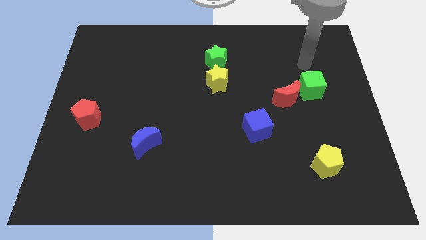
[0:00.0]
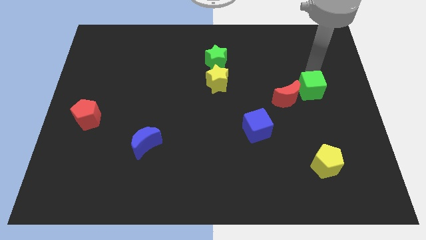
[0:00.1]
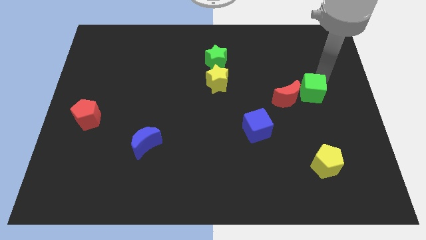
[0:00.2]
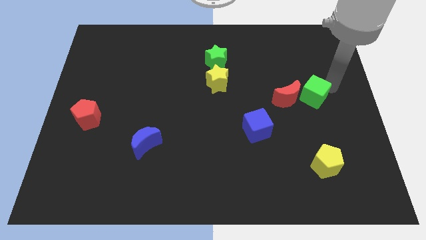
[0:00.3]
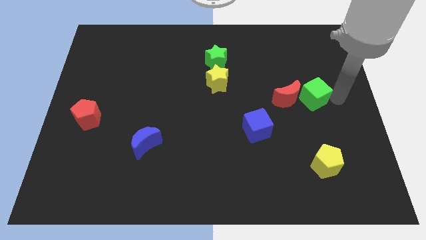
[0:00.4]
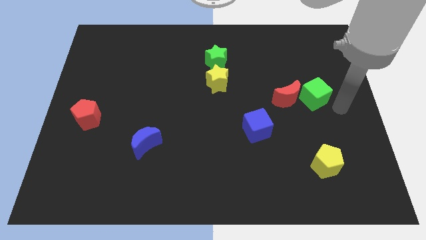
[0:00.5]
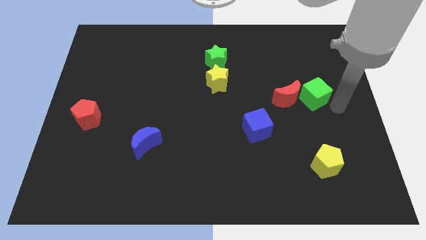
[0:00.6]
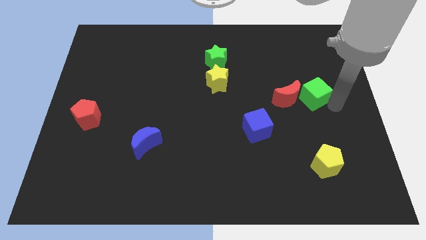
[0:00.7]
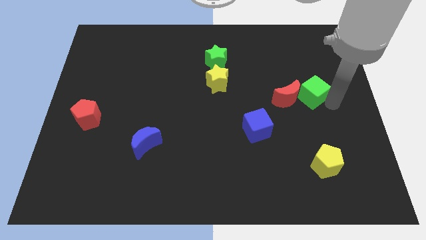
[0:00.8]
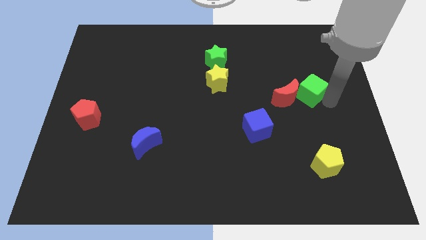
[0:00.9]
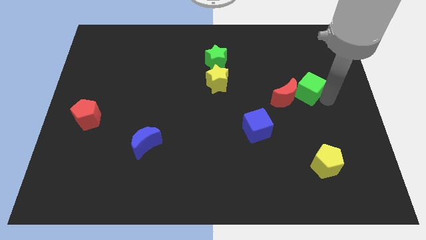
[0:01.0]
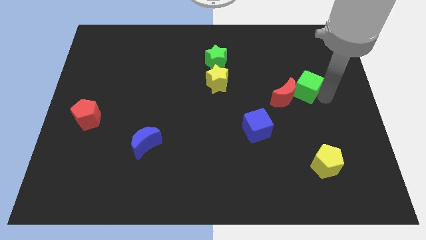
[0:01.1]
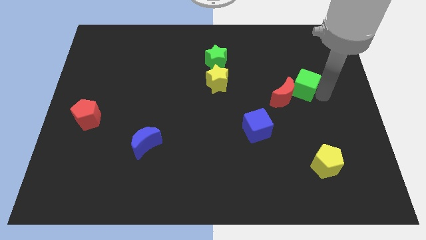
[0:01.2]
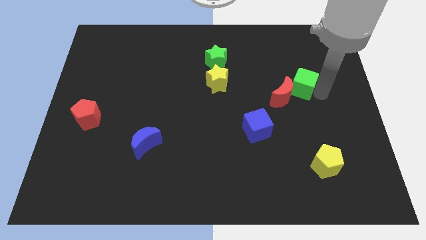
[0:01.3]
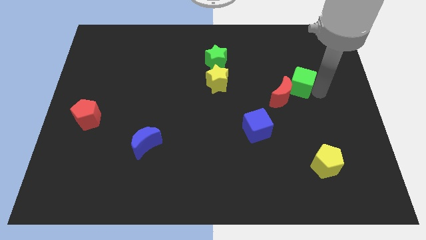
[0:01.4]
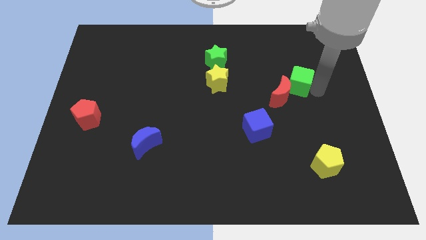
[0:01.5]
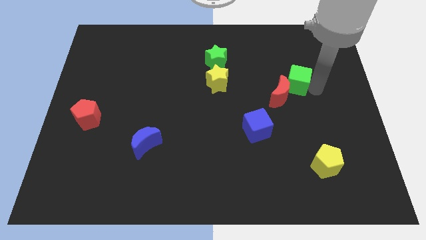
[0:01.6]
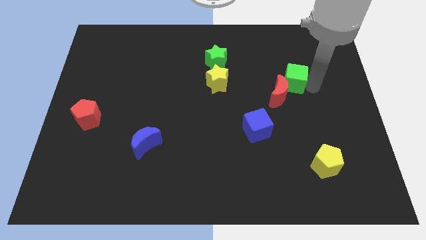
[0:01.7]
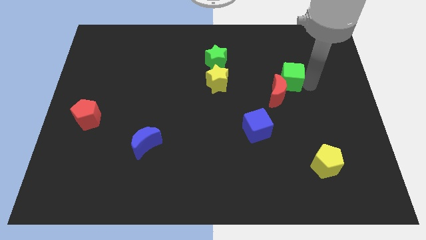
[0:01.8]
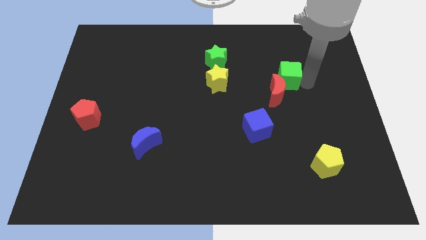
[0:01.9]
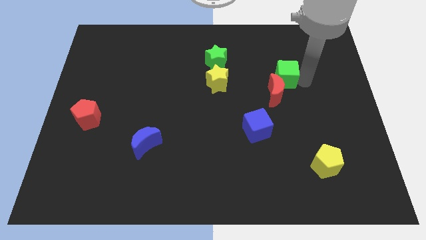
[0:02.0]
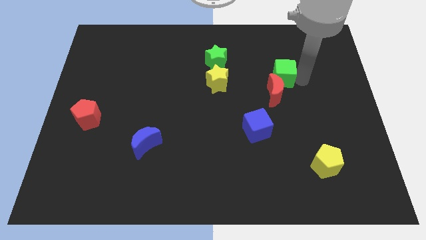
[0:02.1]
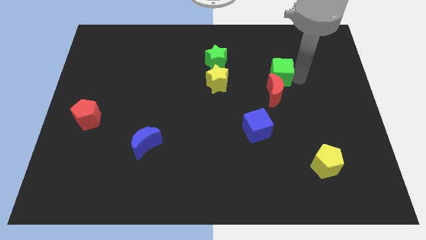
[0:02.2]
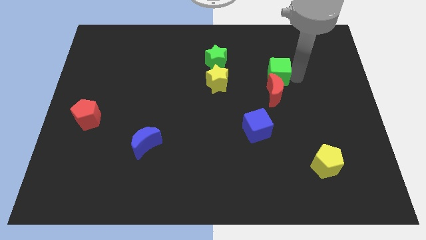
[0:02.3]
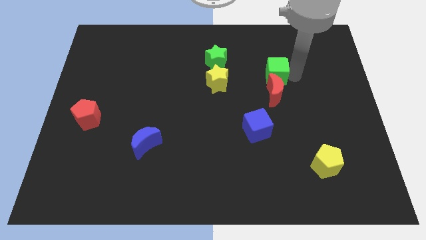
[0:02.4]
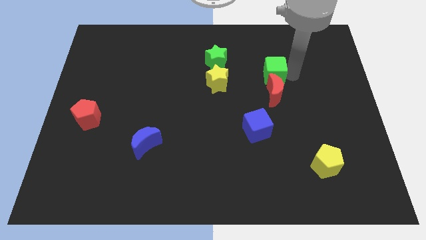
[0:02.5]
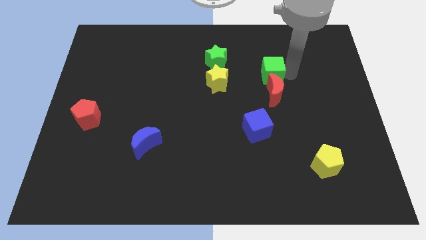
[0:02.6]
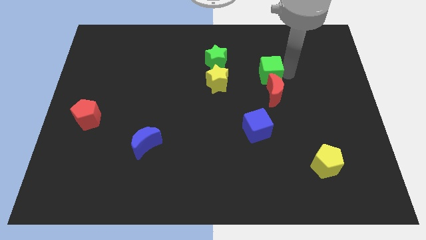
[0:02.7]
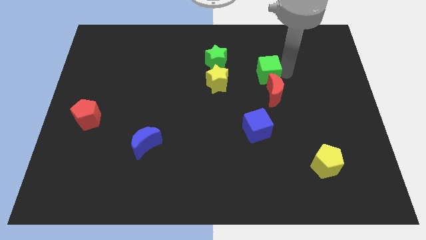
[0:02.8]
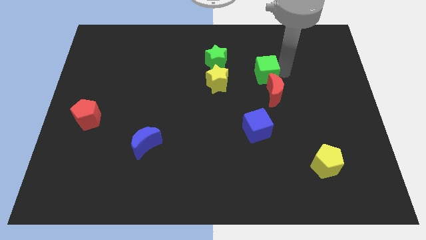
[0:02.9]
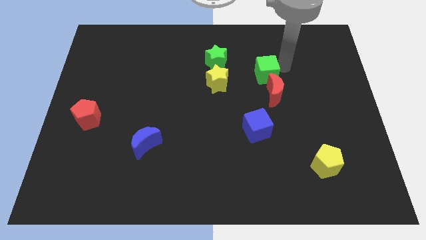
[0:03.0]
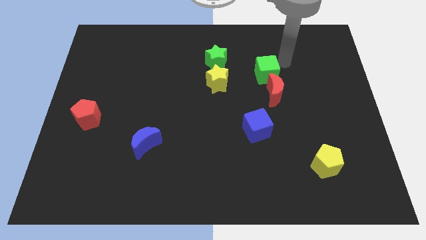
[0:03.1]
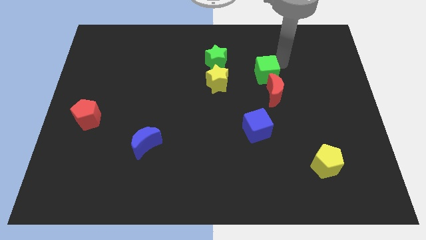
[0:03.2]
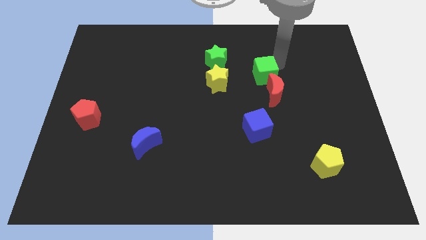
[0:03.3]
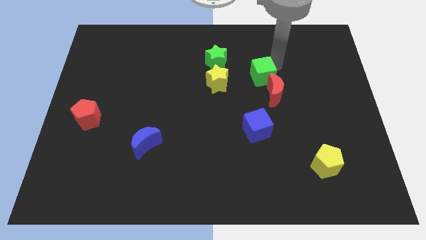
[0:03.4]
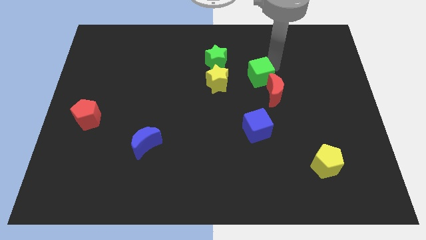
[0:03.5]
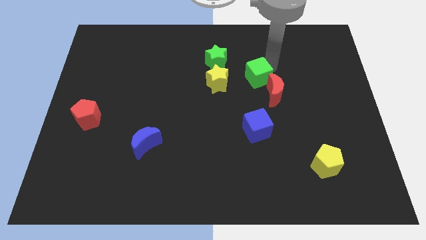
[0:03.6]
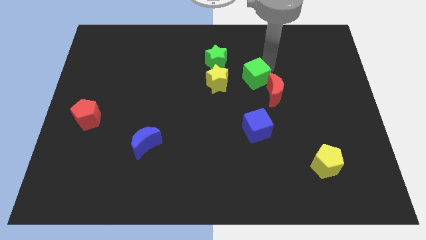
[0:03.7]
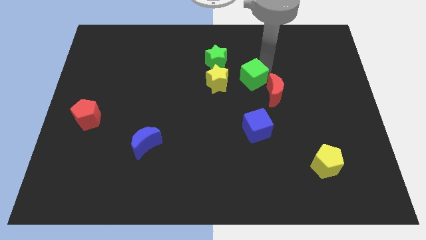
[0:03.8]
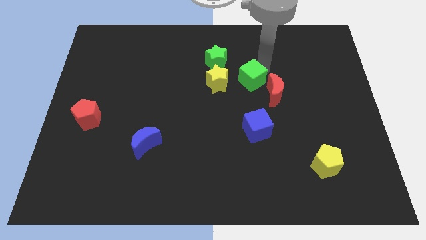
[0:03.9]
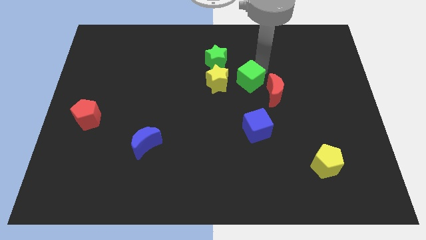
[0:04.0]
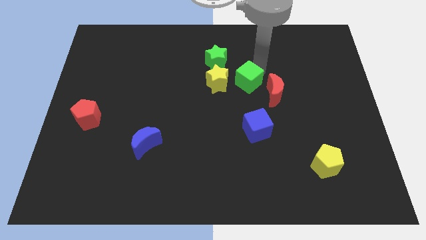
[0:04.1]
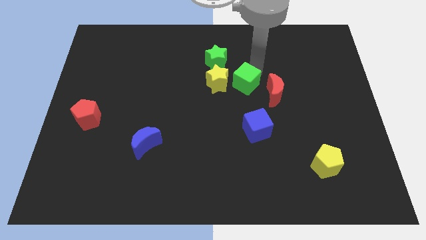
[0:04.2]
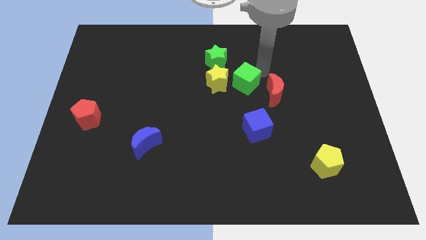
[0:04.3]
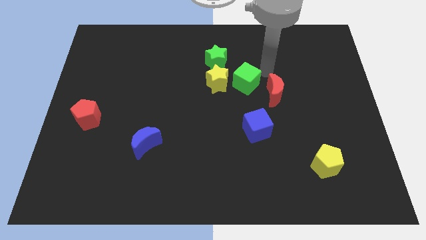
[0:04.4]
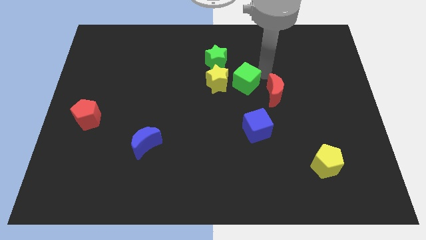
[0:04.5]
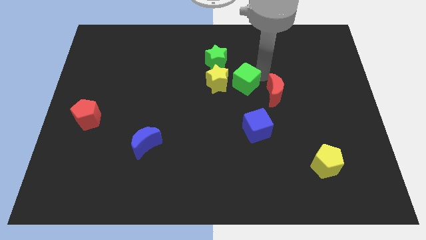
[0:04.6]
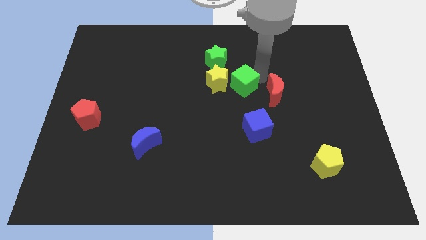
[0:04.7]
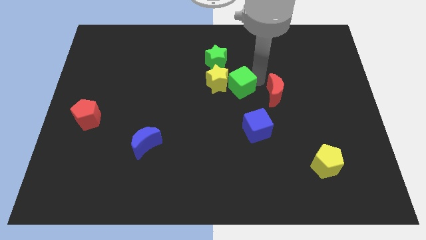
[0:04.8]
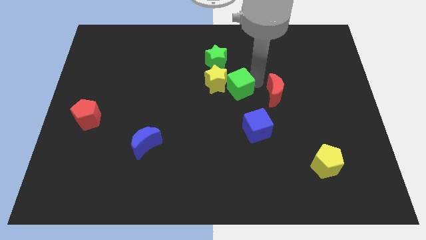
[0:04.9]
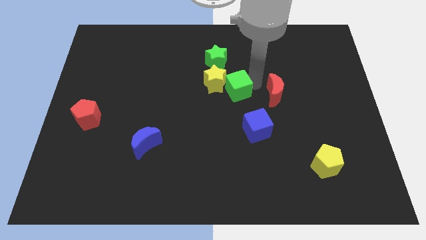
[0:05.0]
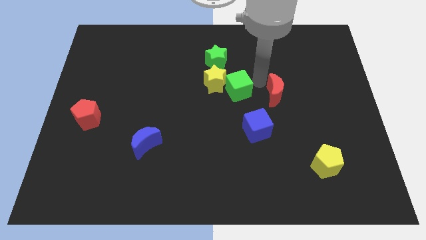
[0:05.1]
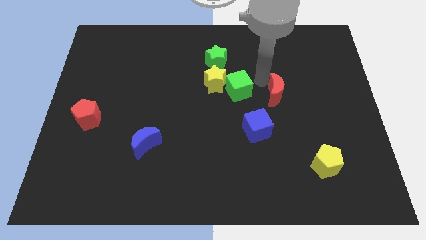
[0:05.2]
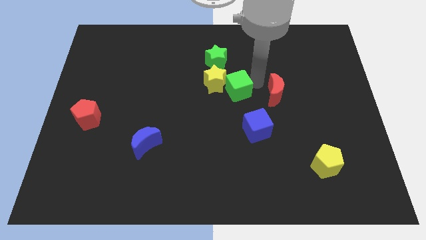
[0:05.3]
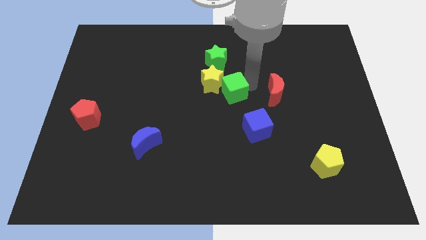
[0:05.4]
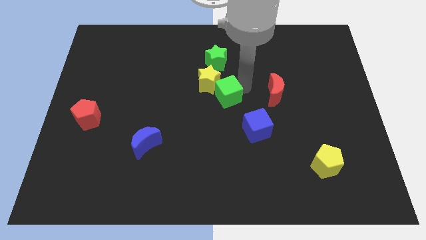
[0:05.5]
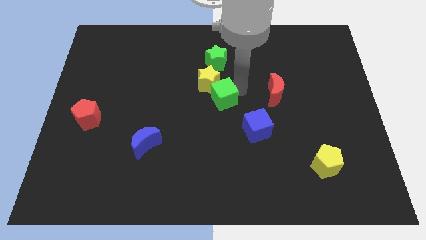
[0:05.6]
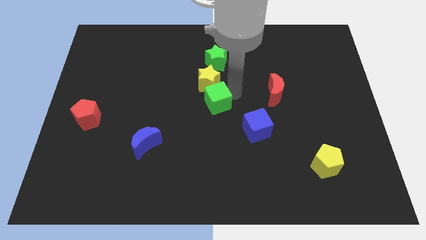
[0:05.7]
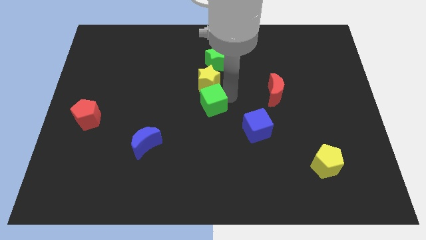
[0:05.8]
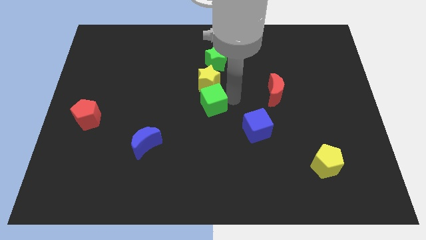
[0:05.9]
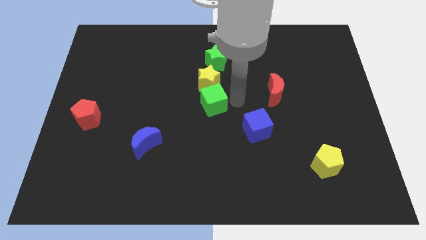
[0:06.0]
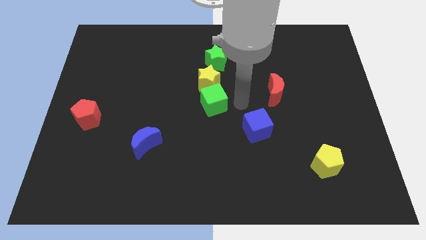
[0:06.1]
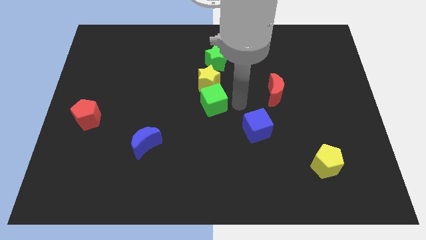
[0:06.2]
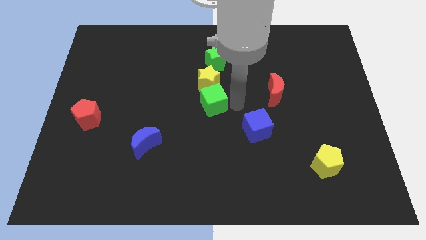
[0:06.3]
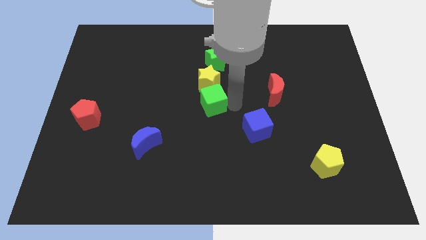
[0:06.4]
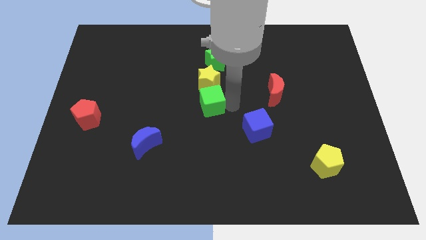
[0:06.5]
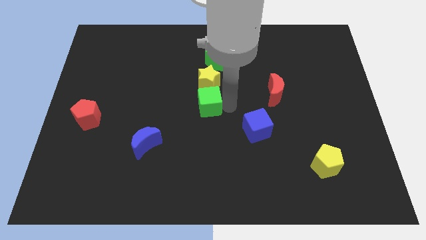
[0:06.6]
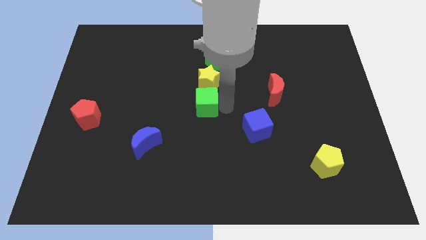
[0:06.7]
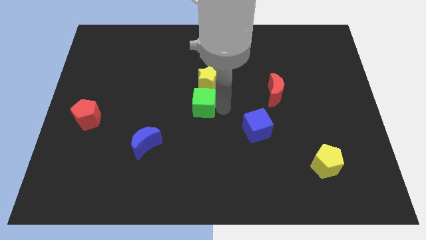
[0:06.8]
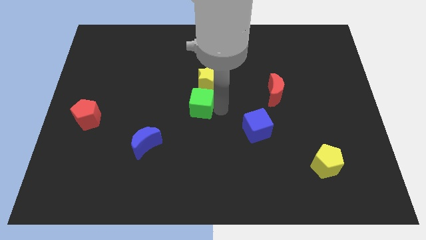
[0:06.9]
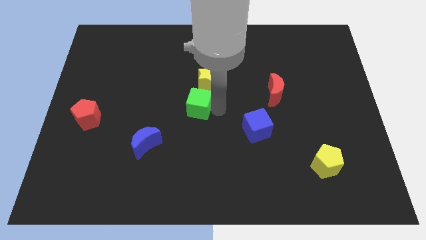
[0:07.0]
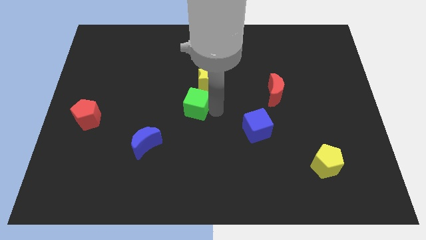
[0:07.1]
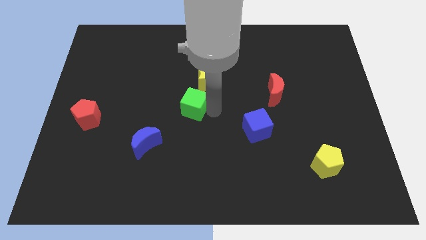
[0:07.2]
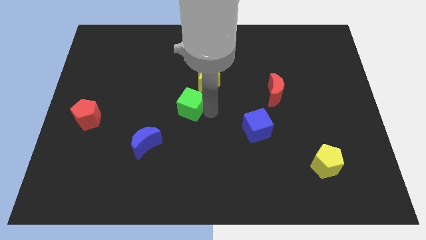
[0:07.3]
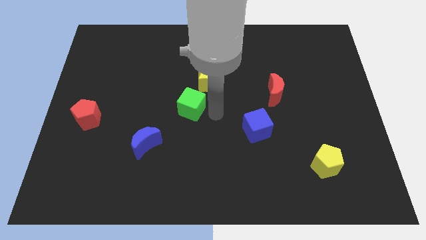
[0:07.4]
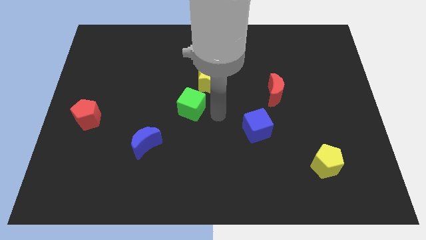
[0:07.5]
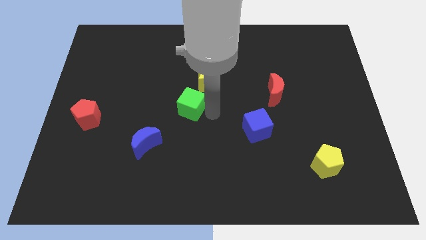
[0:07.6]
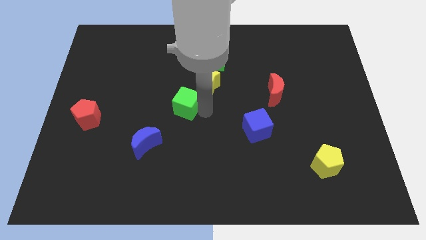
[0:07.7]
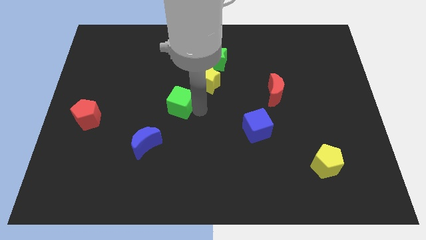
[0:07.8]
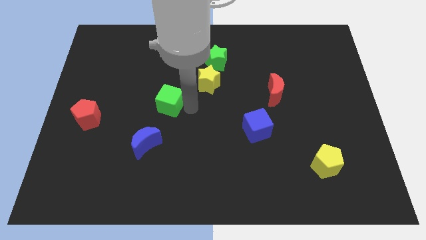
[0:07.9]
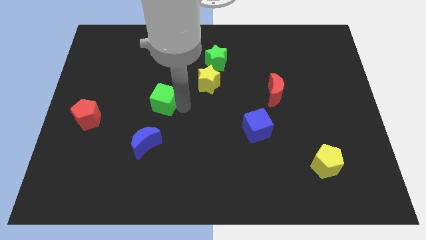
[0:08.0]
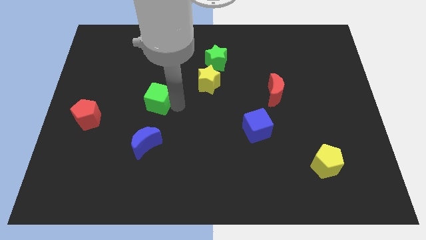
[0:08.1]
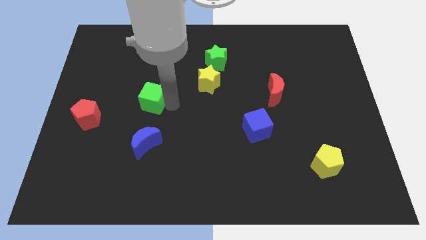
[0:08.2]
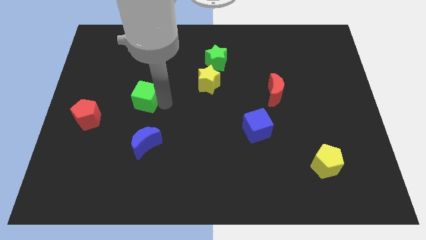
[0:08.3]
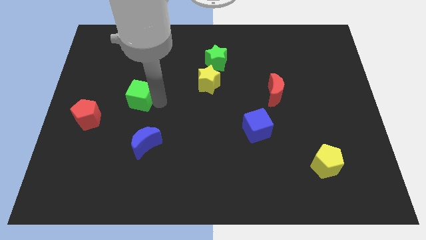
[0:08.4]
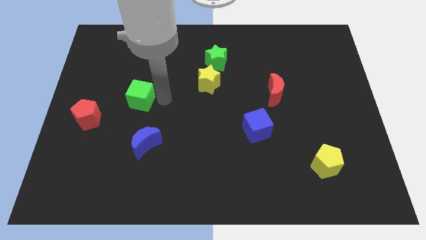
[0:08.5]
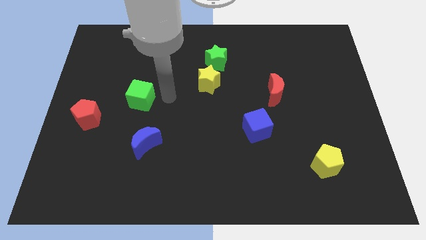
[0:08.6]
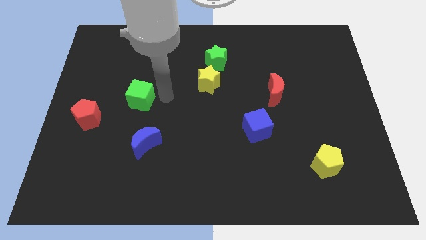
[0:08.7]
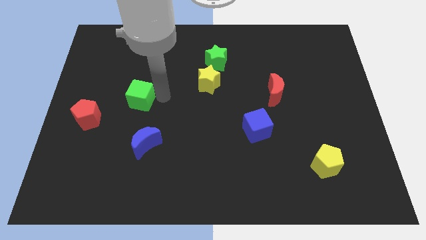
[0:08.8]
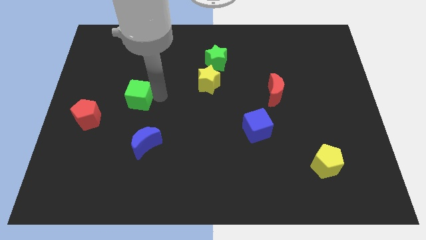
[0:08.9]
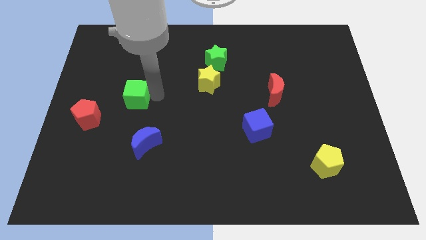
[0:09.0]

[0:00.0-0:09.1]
slide the green cube to the top right of the red pentagon
